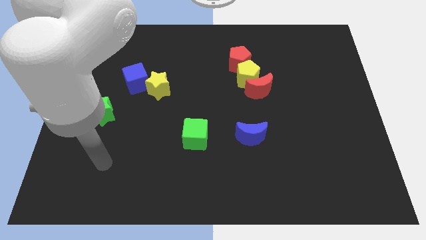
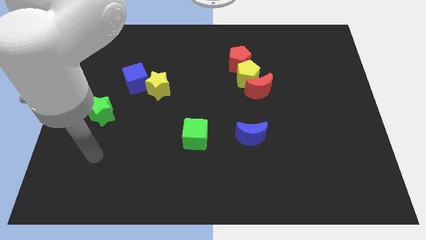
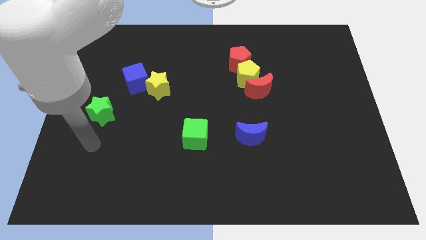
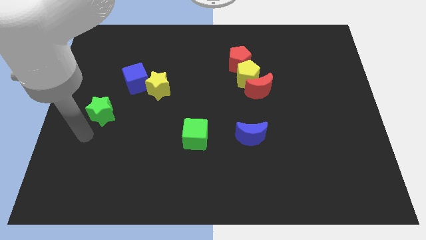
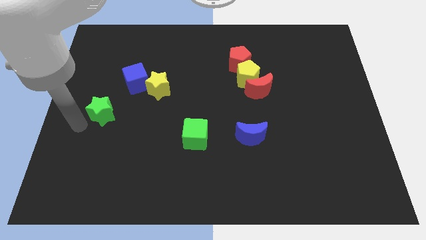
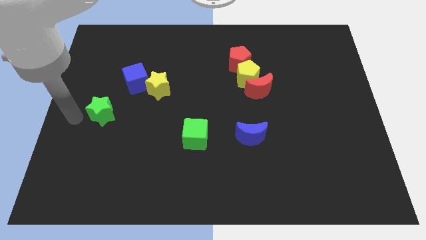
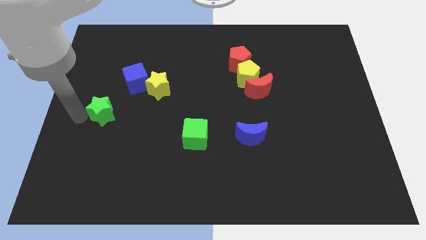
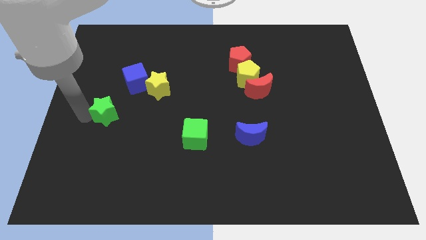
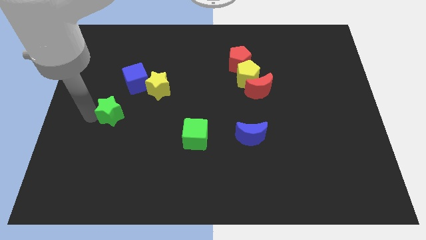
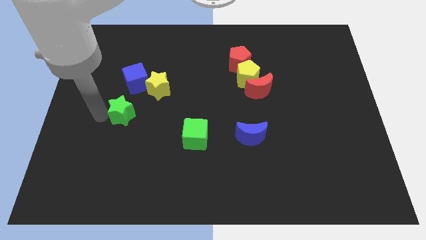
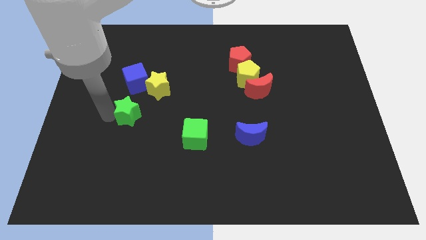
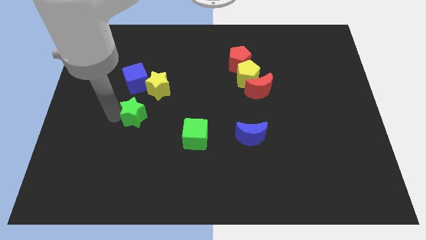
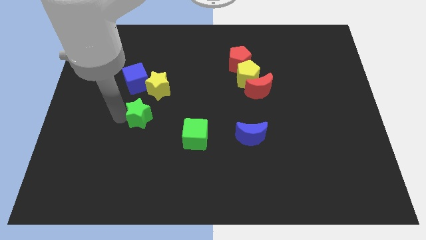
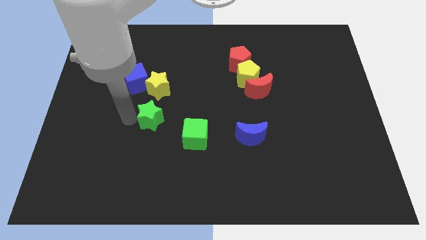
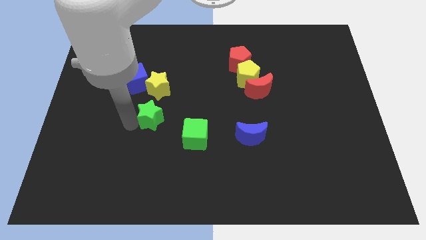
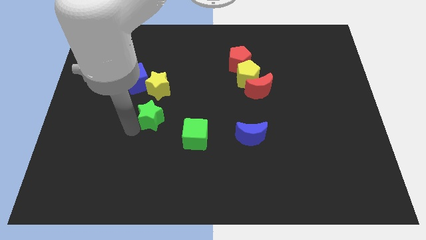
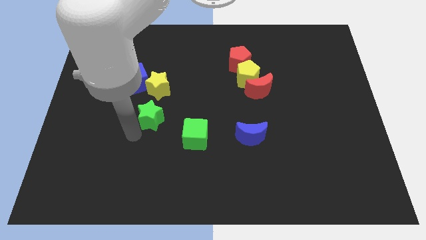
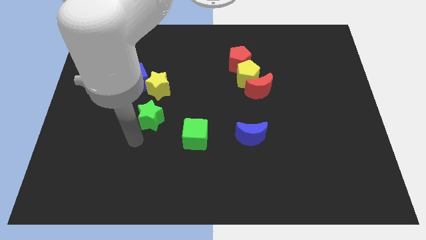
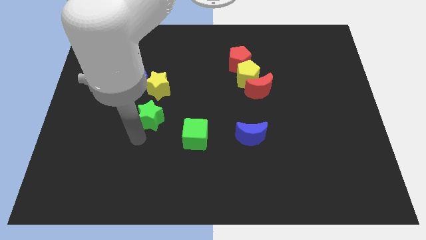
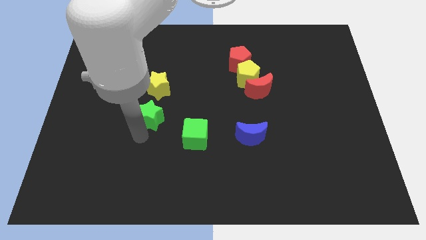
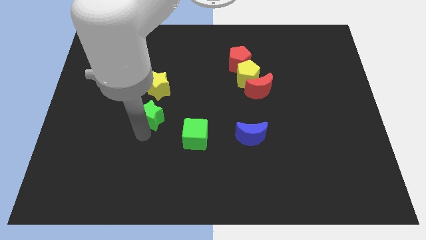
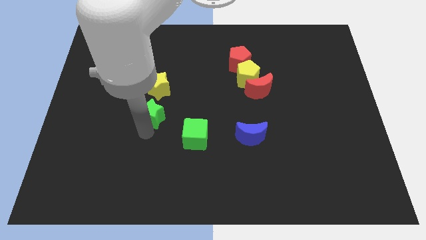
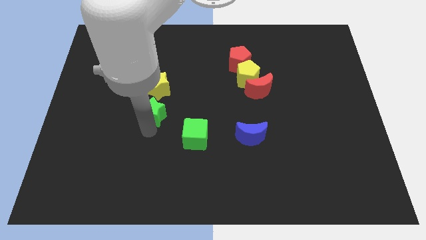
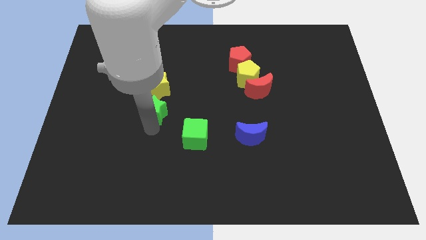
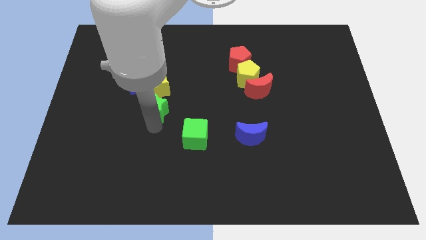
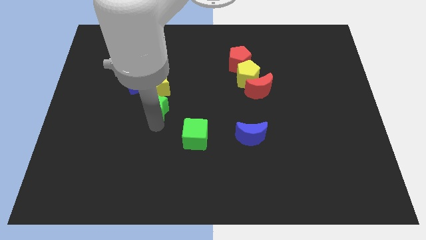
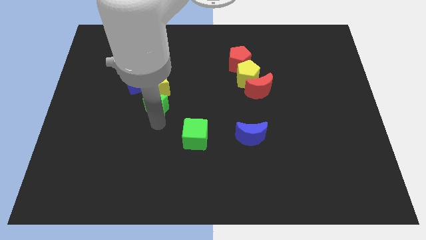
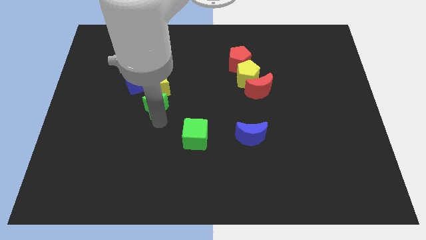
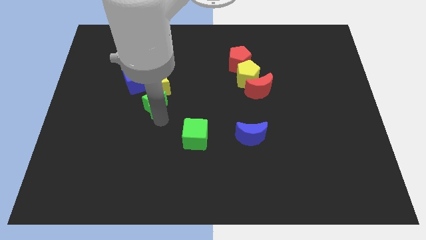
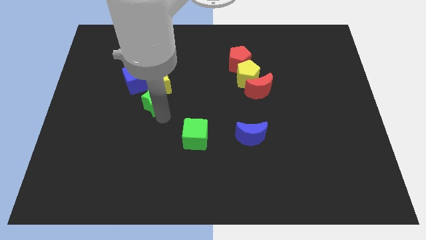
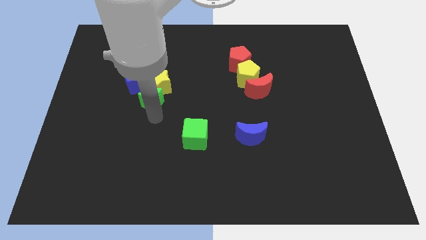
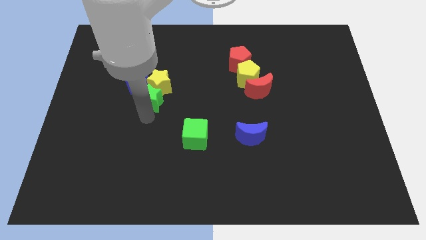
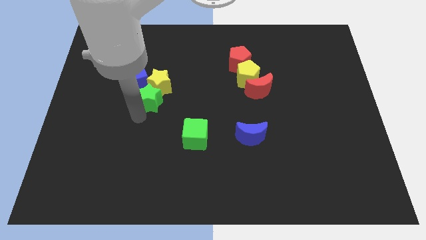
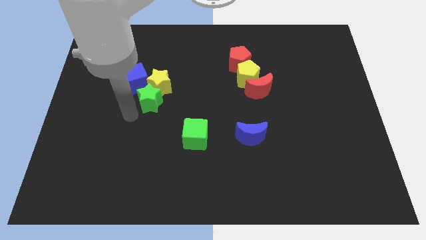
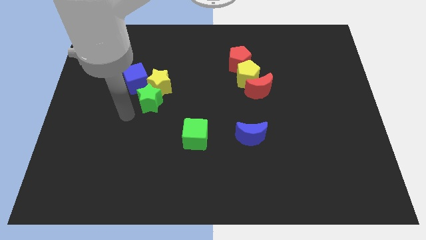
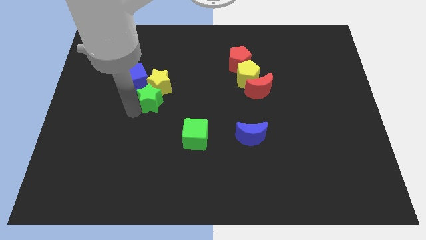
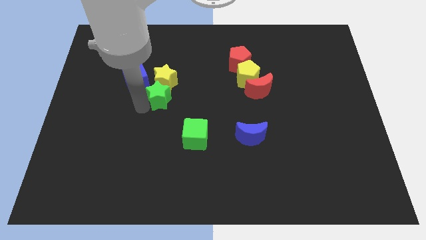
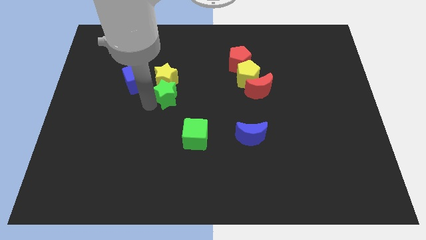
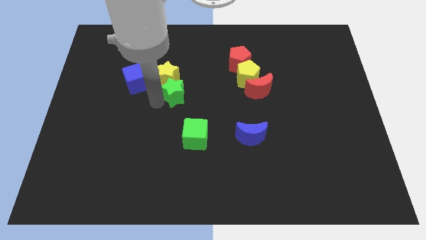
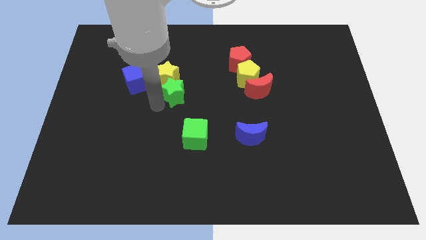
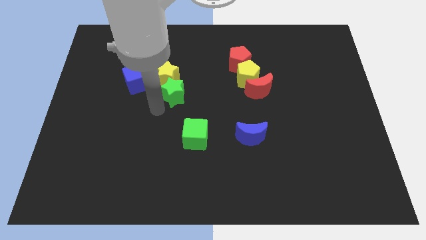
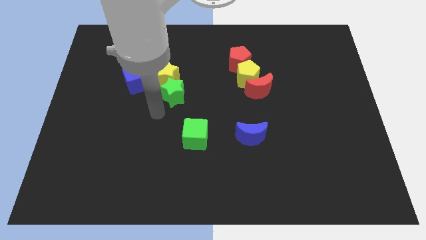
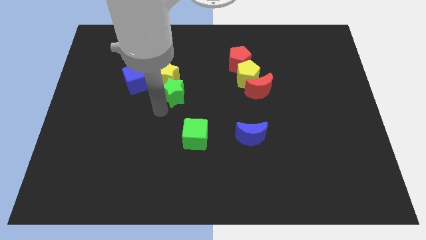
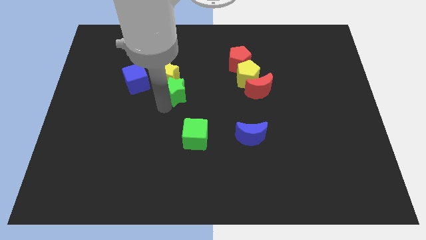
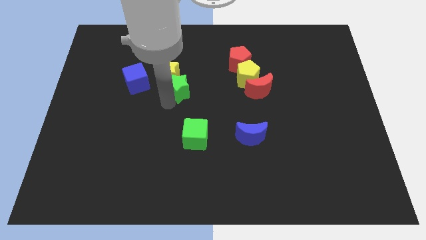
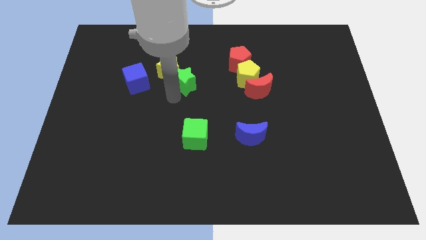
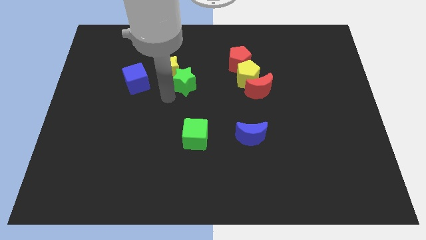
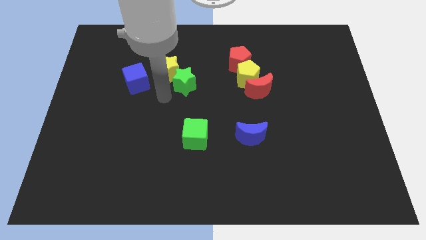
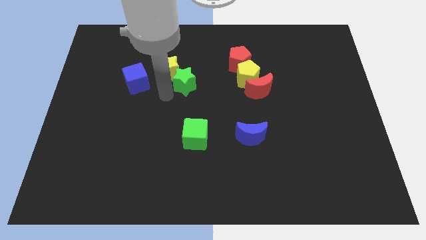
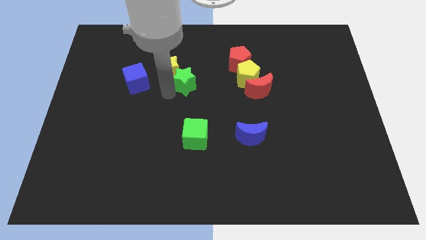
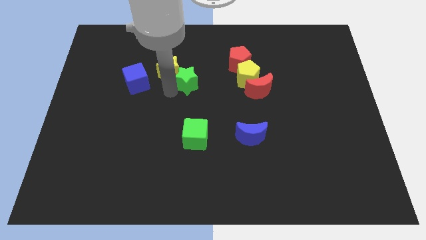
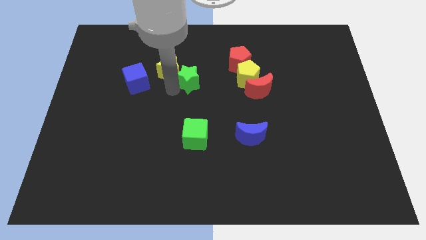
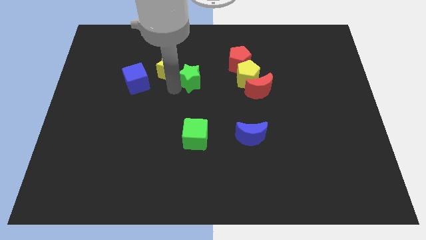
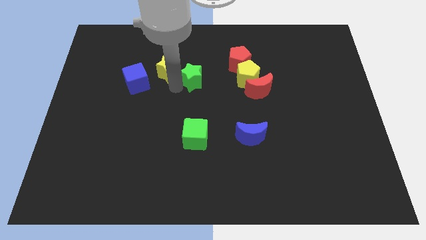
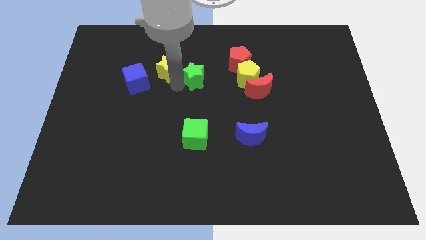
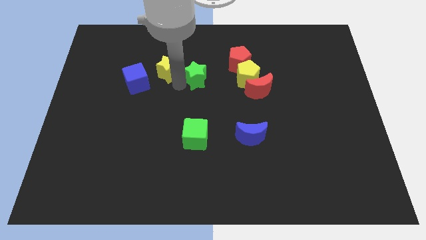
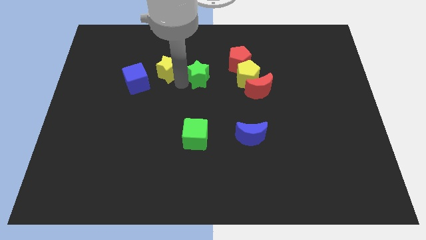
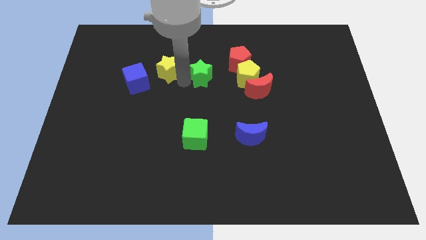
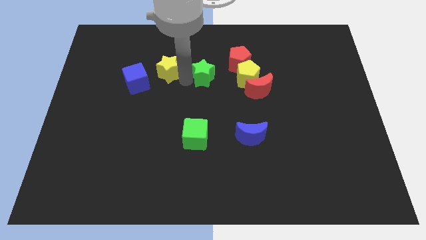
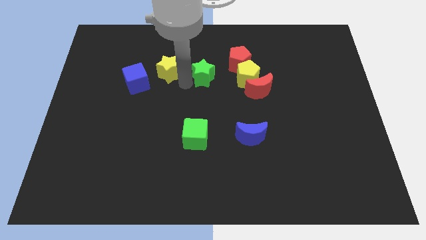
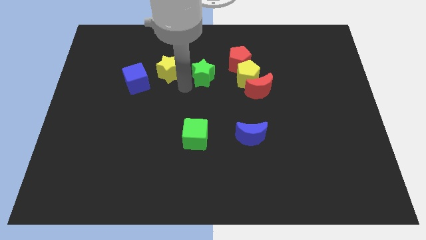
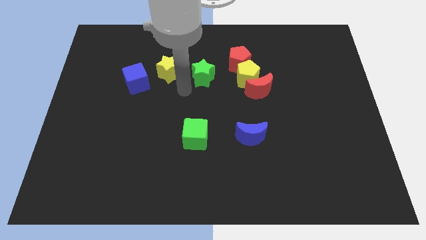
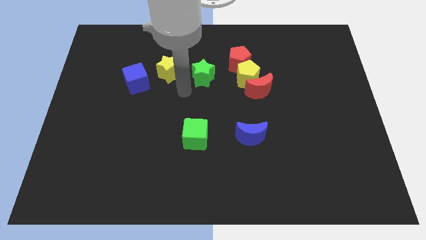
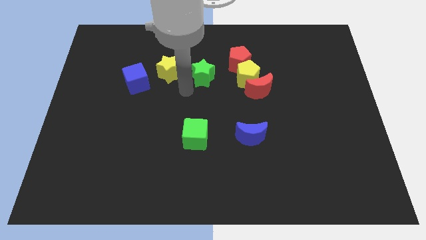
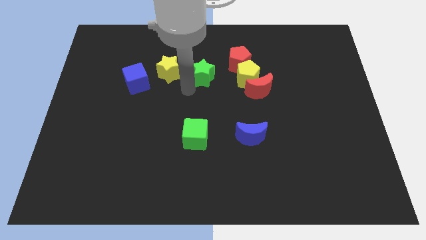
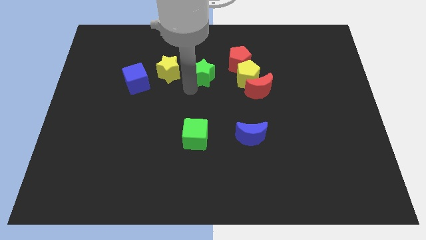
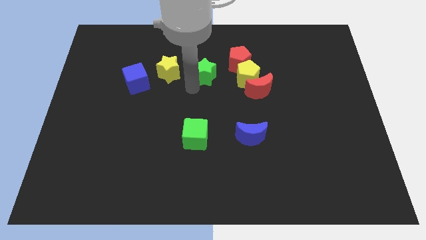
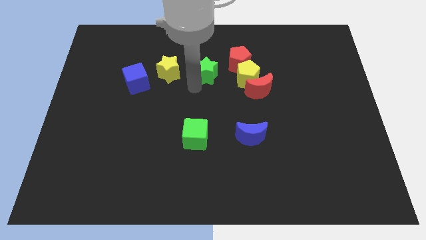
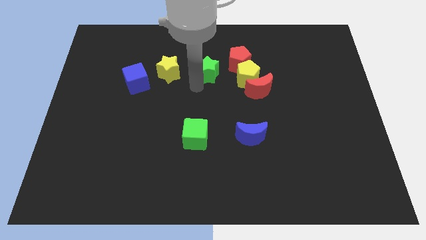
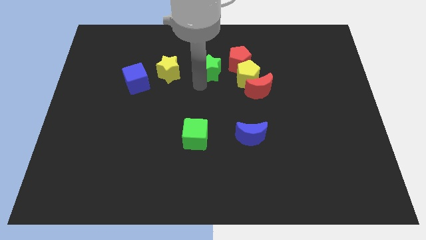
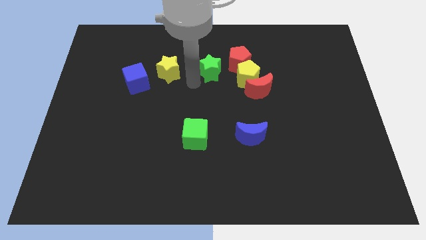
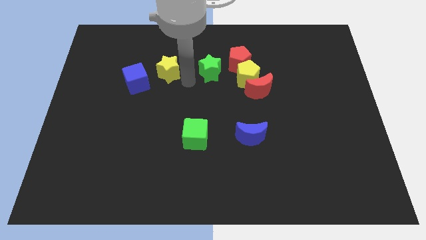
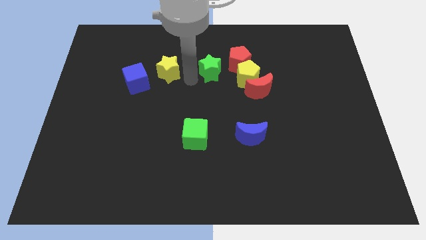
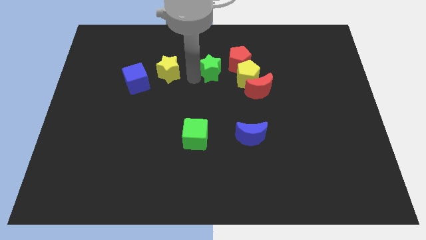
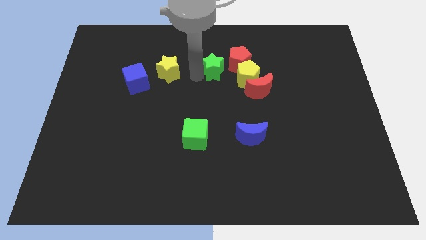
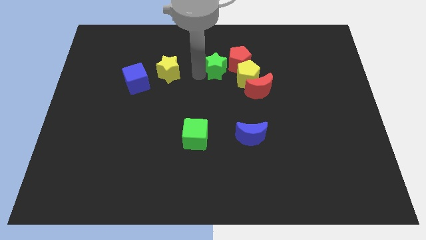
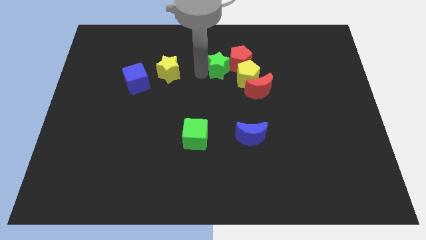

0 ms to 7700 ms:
move the green star towards the red pentagon
